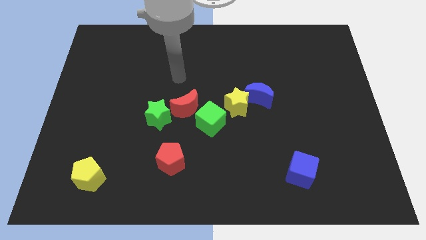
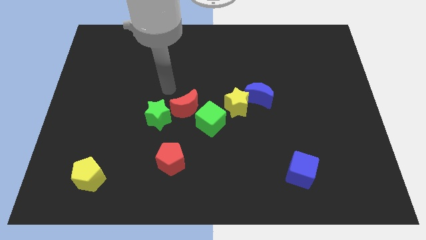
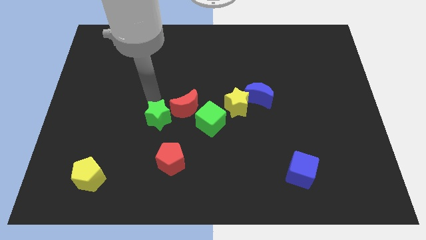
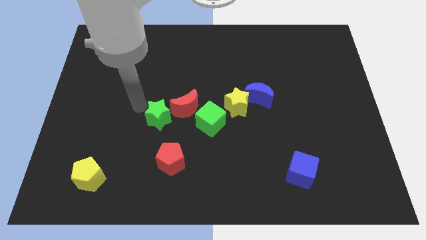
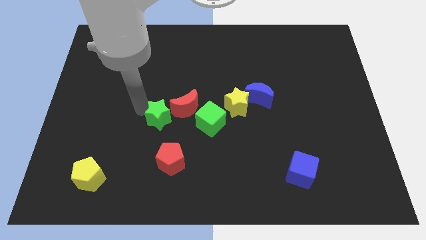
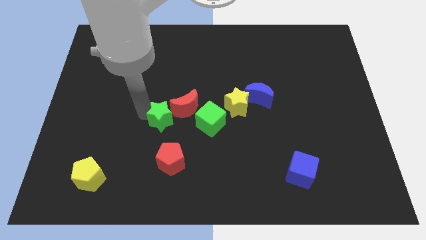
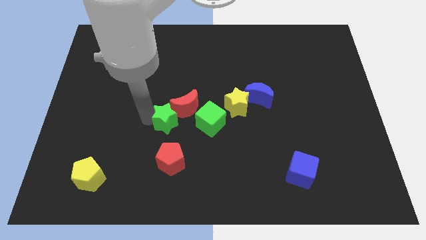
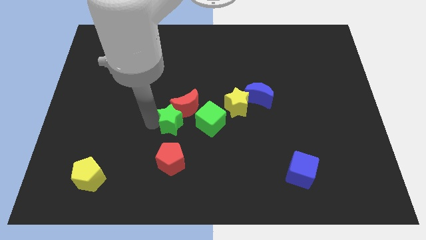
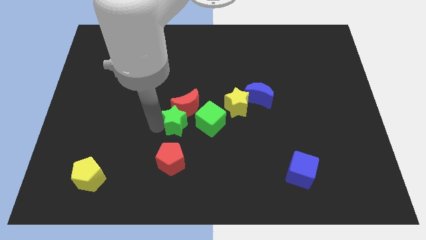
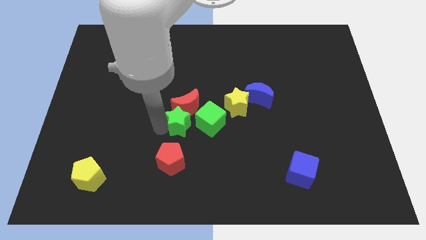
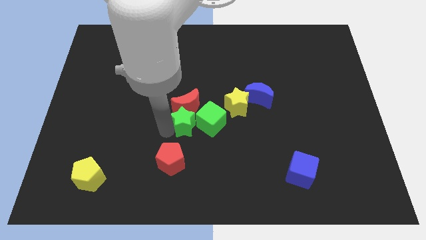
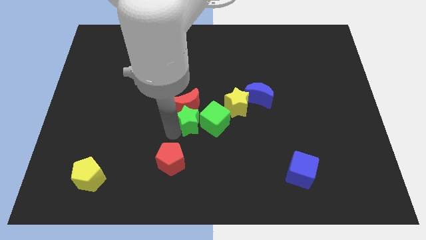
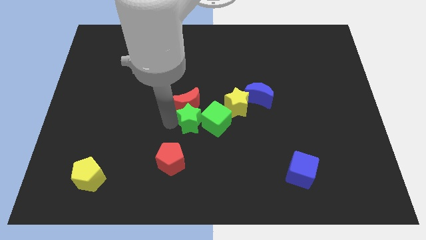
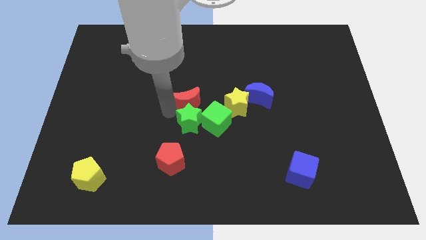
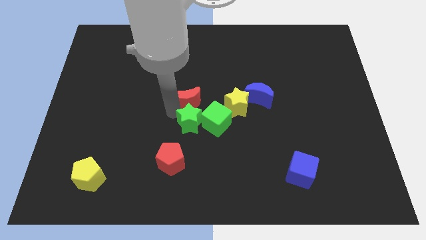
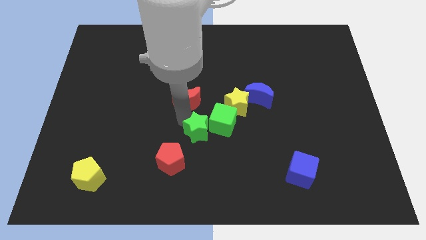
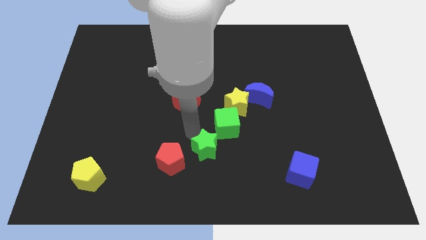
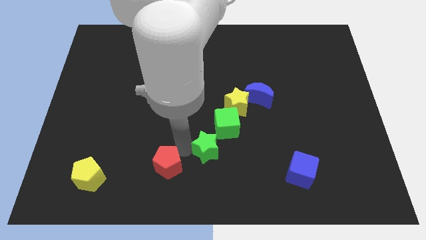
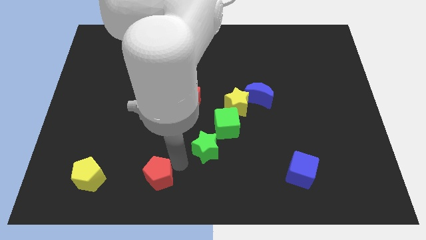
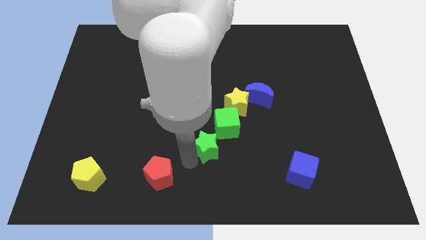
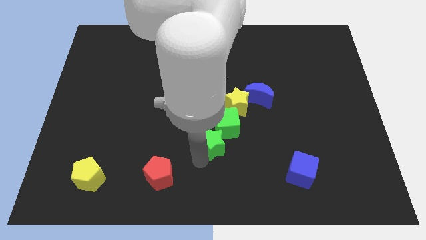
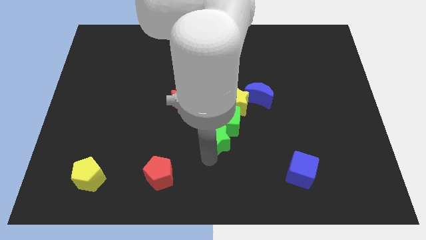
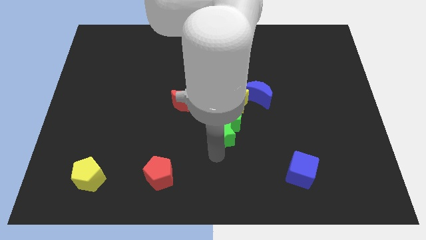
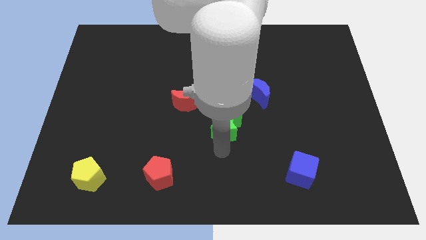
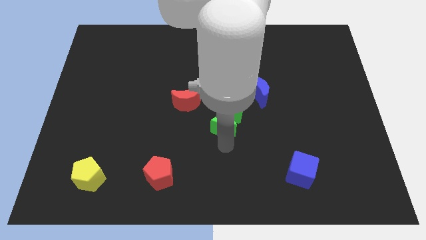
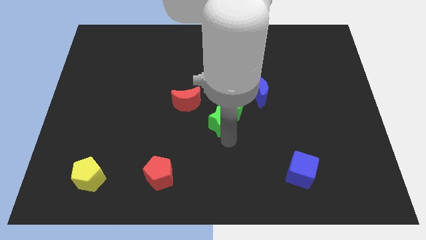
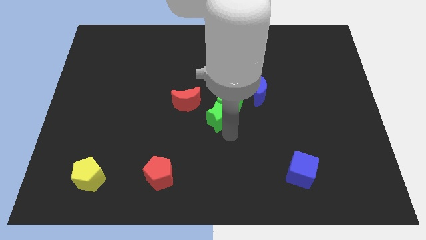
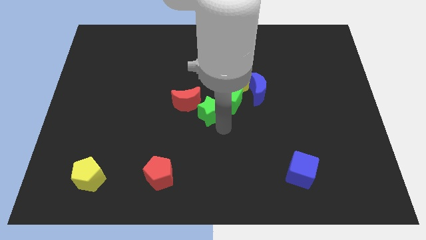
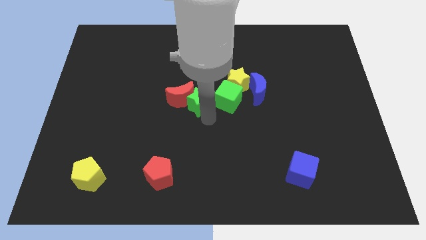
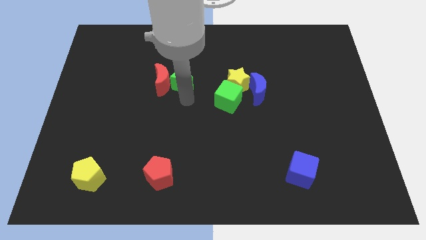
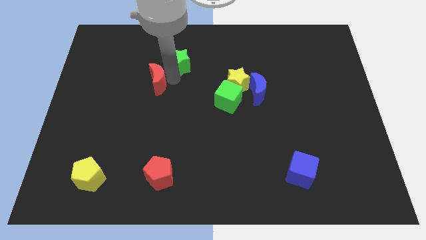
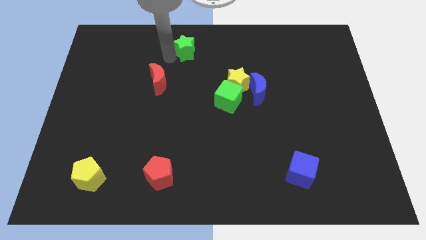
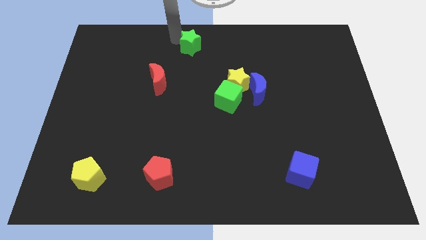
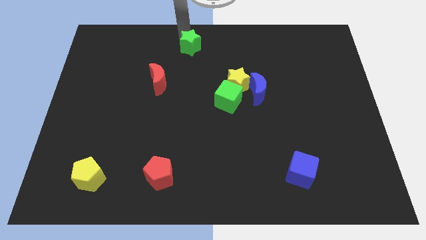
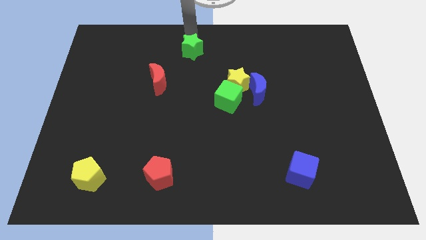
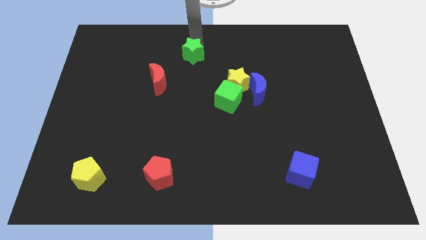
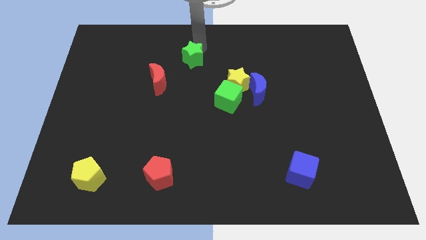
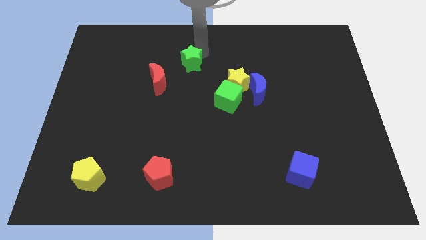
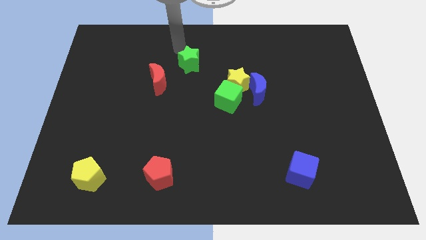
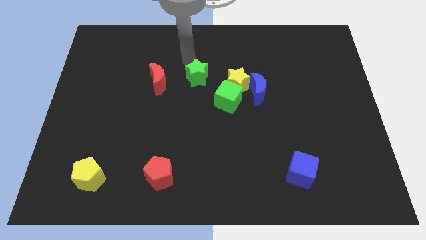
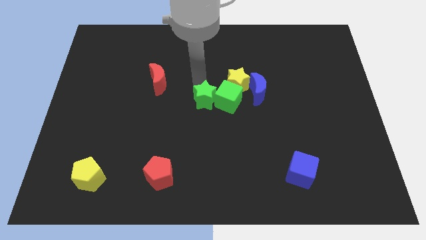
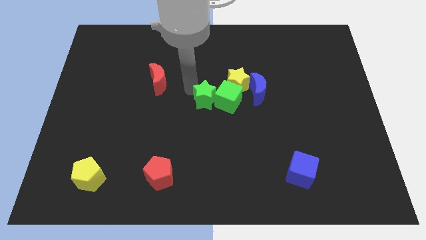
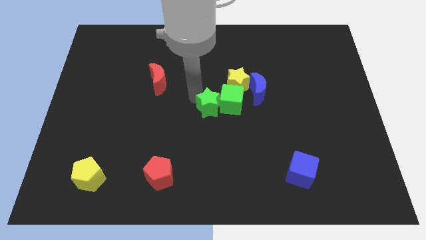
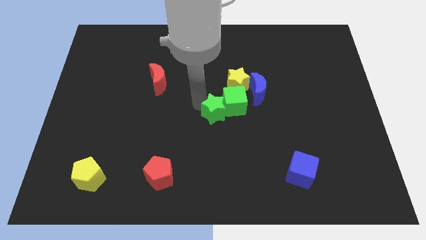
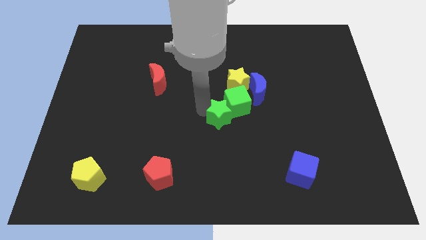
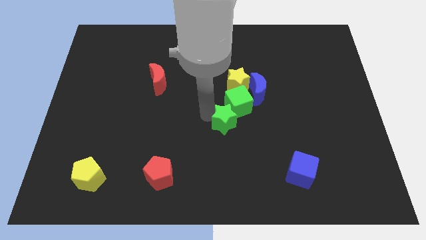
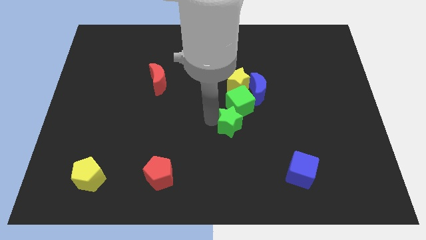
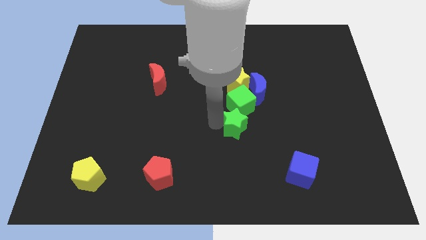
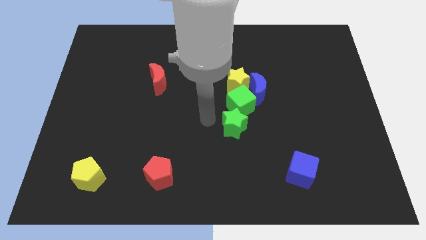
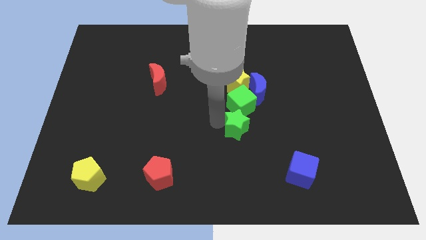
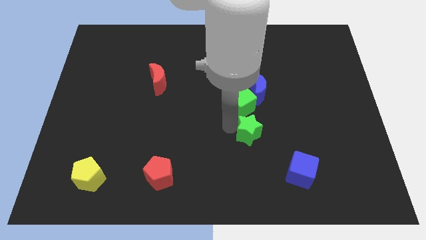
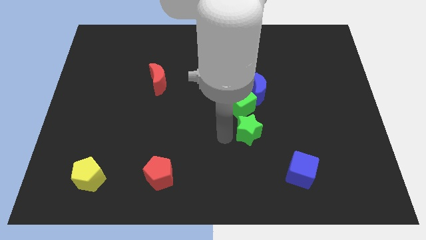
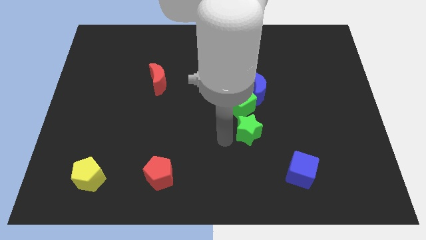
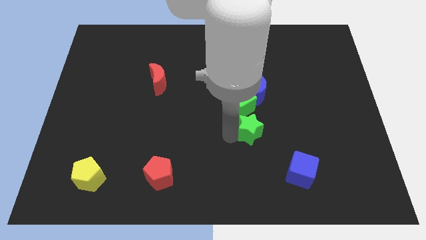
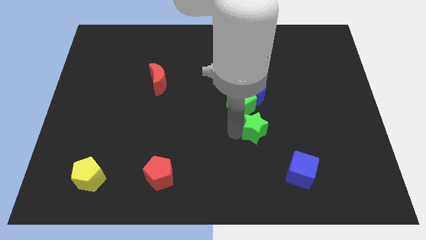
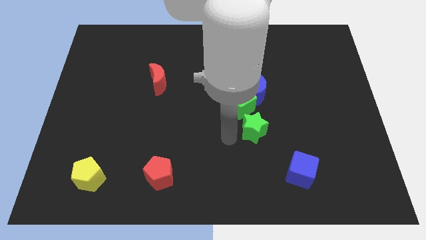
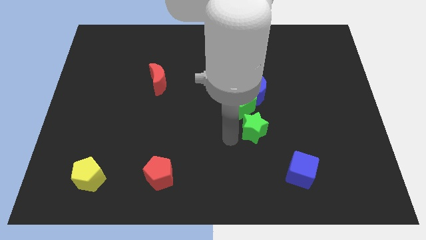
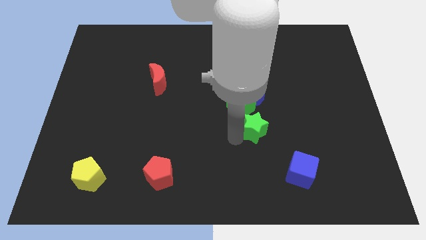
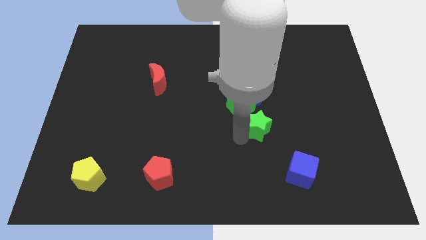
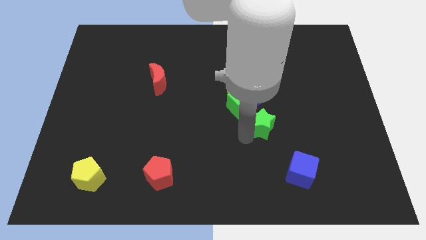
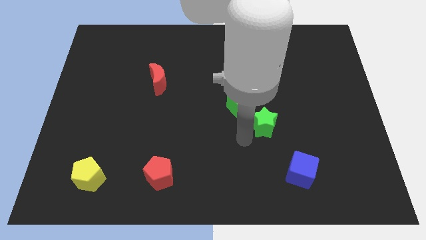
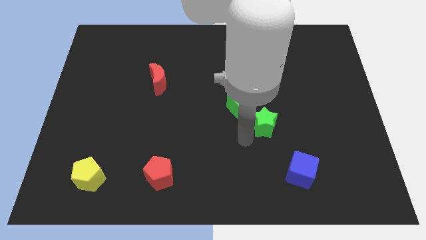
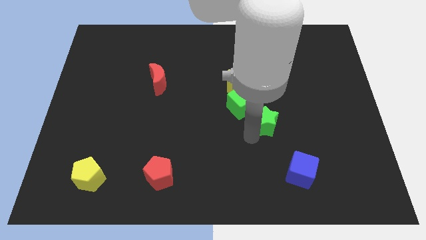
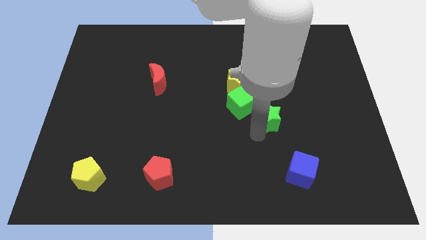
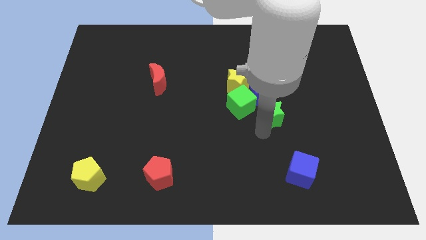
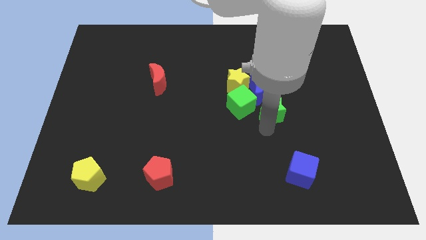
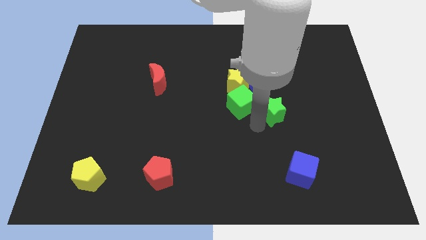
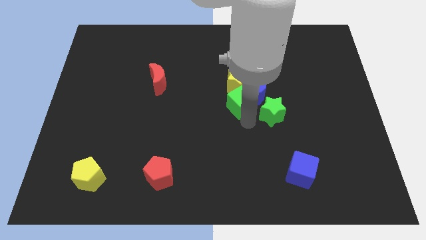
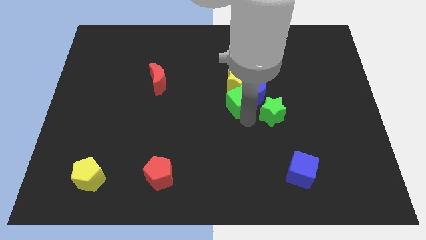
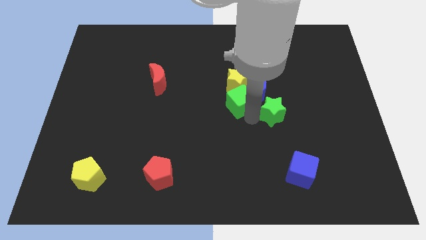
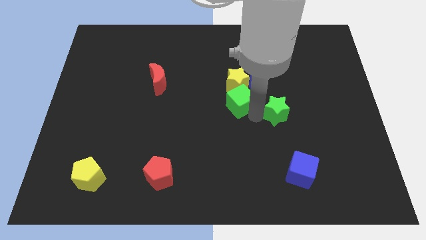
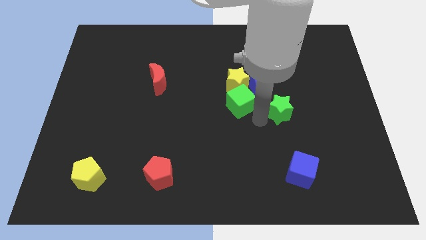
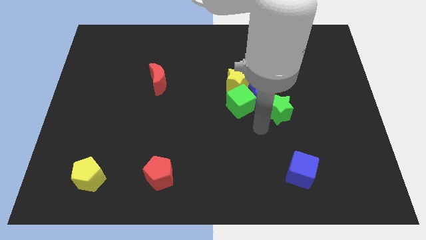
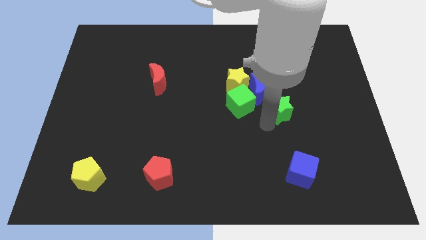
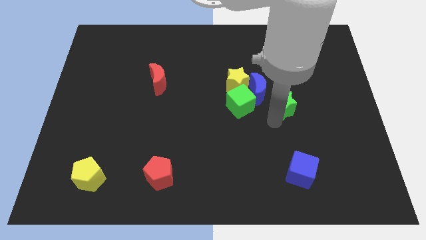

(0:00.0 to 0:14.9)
put the green star to the right of the blue moon
